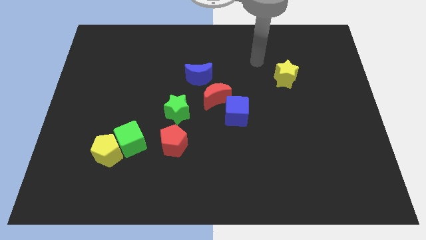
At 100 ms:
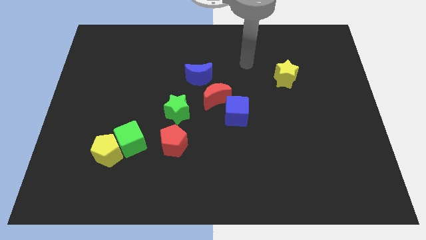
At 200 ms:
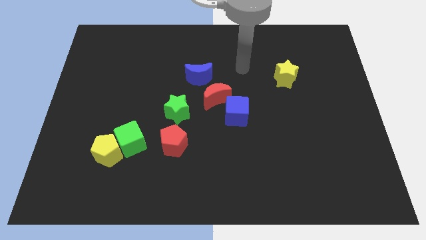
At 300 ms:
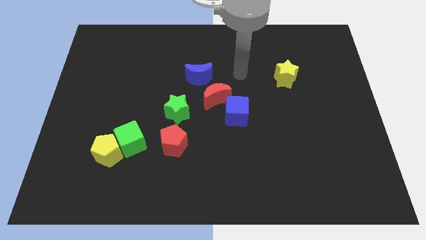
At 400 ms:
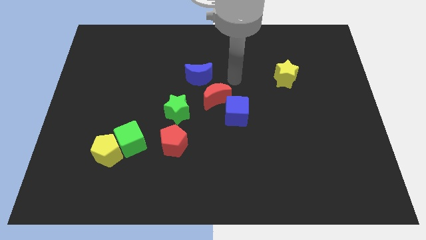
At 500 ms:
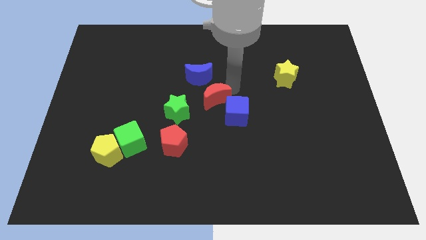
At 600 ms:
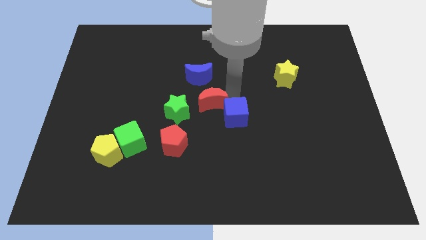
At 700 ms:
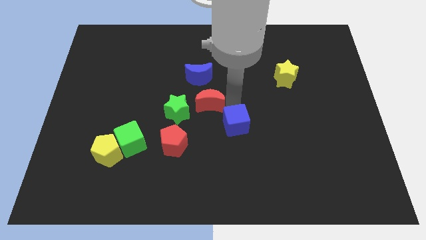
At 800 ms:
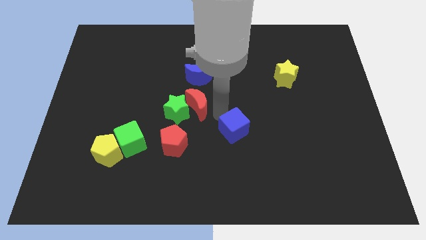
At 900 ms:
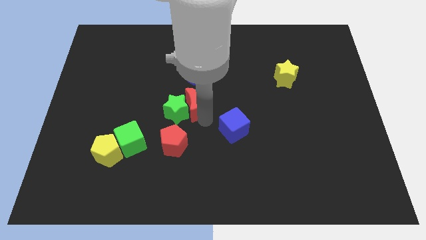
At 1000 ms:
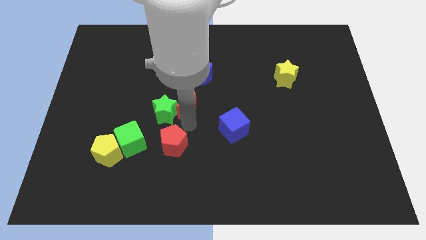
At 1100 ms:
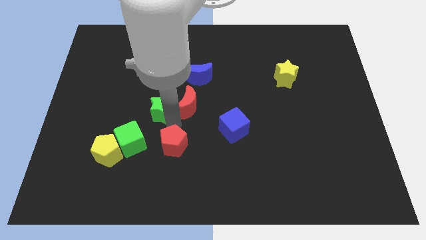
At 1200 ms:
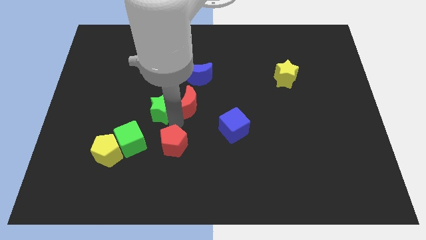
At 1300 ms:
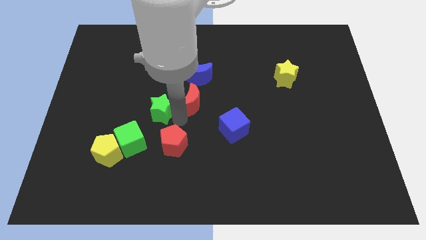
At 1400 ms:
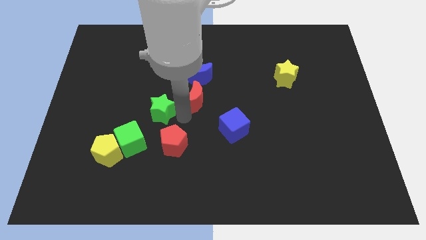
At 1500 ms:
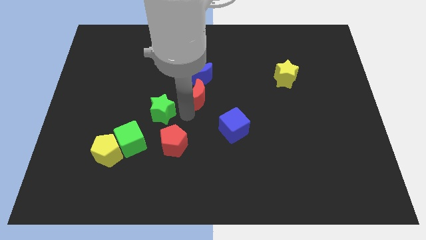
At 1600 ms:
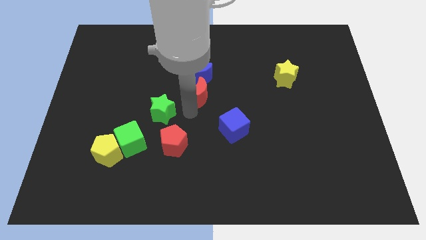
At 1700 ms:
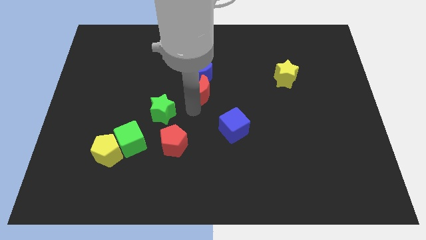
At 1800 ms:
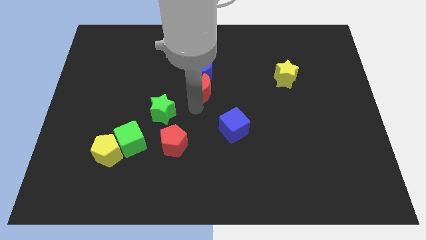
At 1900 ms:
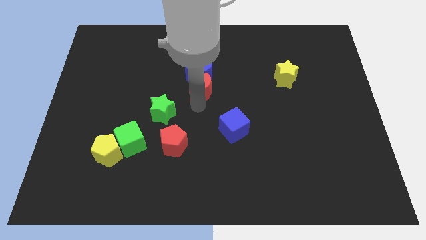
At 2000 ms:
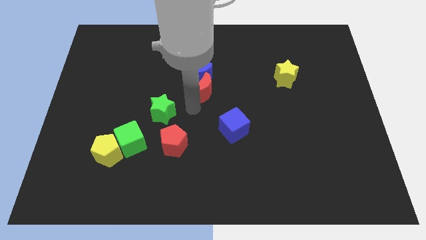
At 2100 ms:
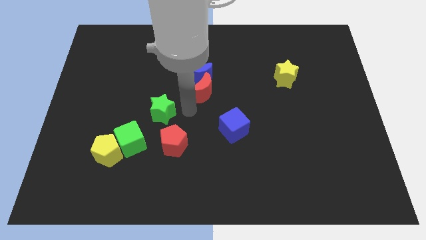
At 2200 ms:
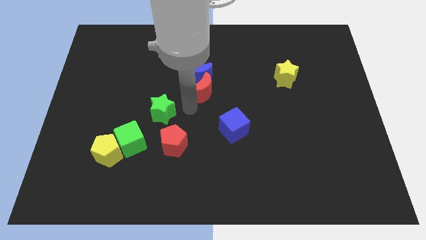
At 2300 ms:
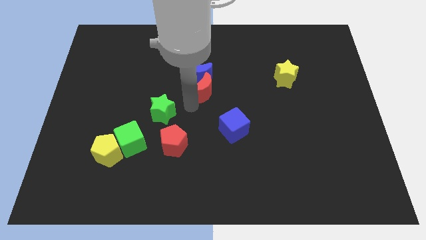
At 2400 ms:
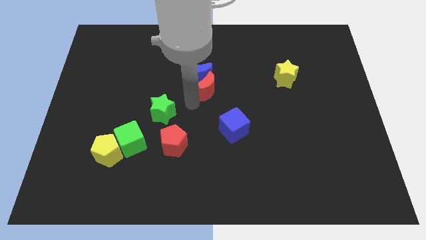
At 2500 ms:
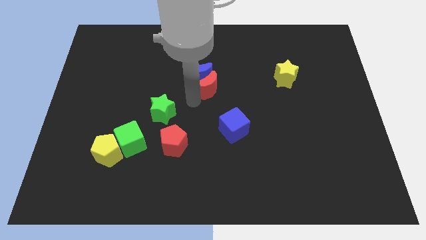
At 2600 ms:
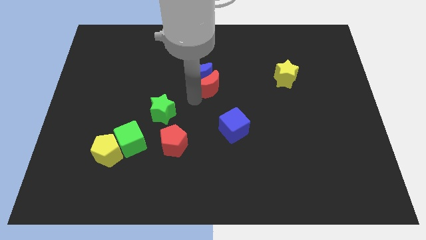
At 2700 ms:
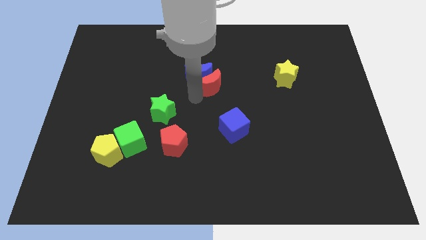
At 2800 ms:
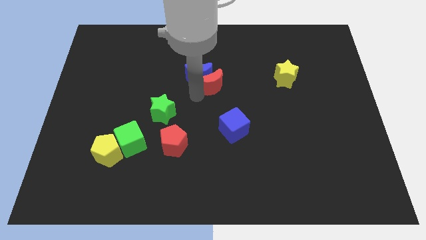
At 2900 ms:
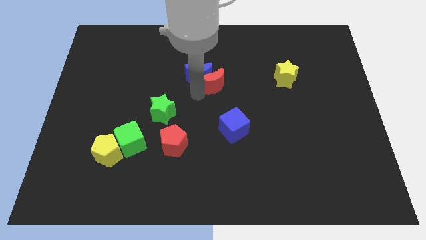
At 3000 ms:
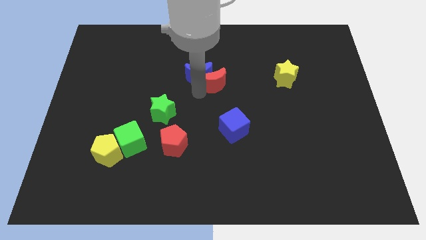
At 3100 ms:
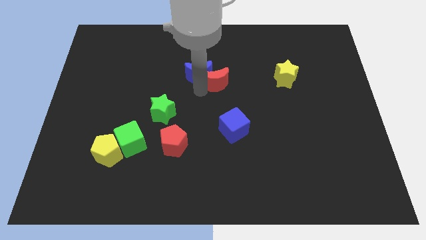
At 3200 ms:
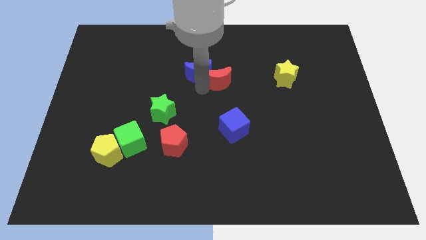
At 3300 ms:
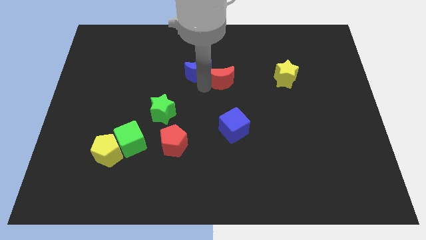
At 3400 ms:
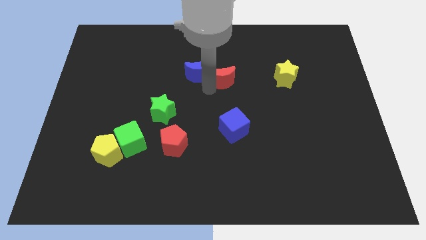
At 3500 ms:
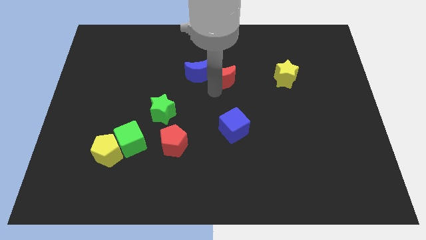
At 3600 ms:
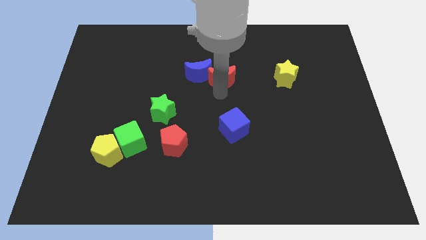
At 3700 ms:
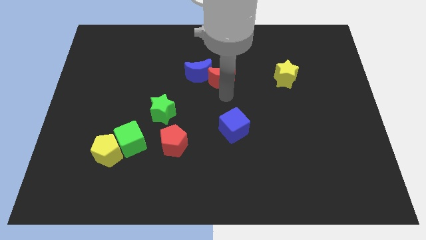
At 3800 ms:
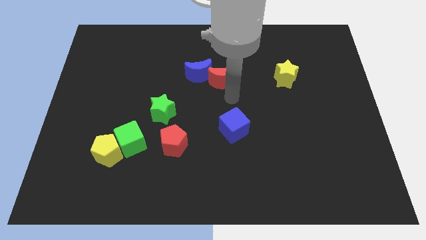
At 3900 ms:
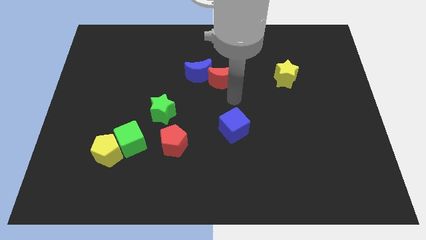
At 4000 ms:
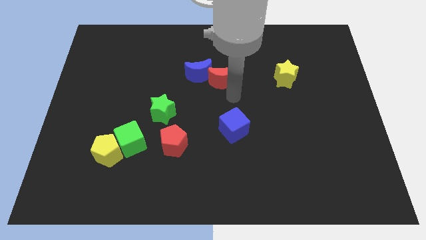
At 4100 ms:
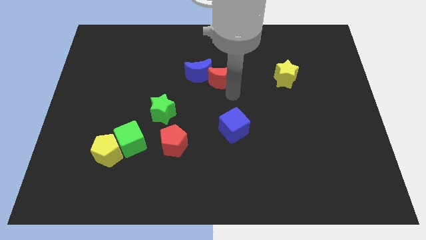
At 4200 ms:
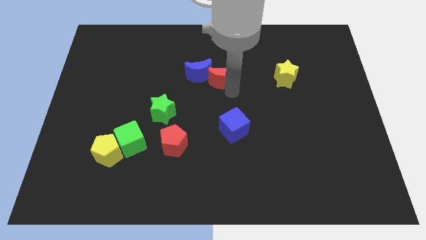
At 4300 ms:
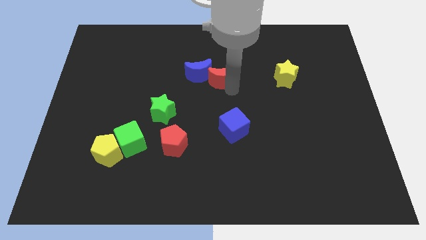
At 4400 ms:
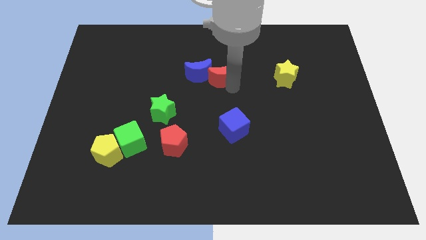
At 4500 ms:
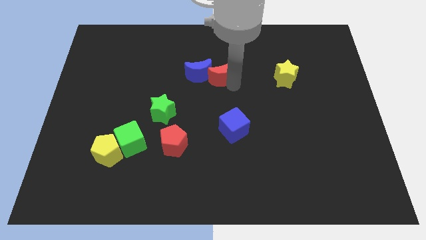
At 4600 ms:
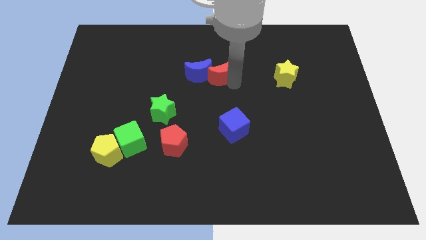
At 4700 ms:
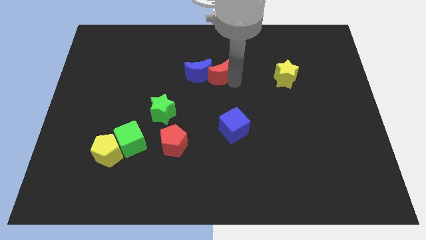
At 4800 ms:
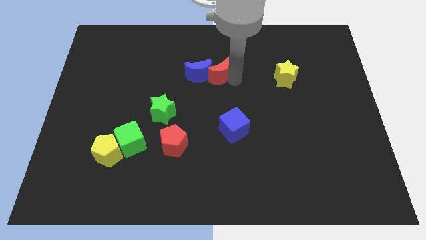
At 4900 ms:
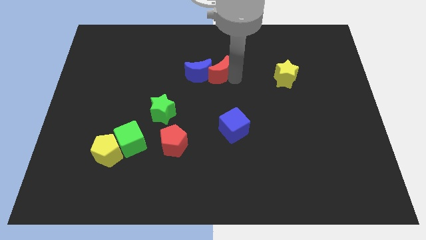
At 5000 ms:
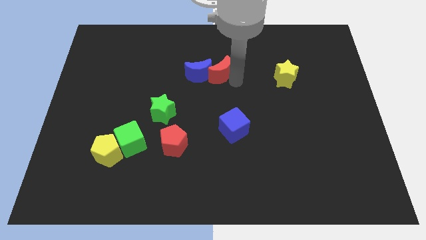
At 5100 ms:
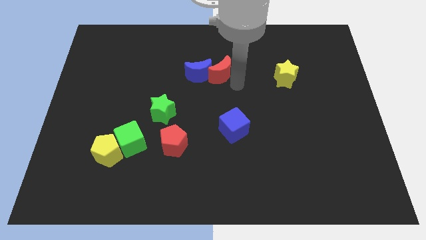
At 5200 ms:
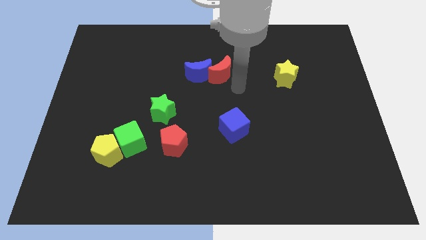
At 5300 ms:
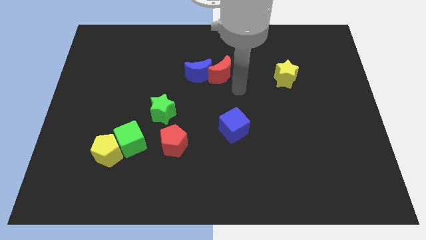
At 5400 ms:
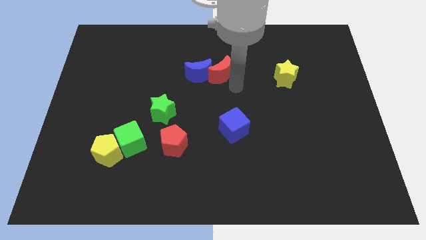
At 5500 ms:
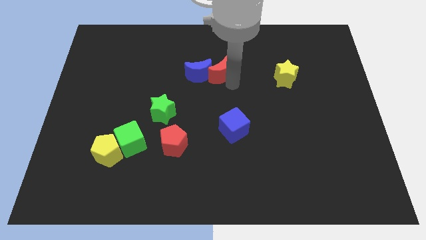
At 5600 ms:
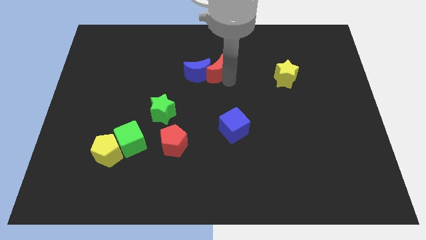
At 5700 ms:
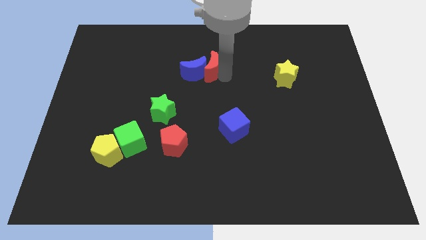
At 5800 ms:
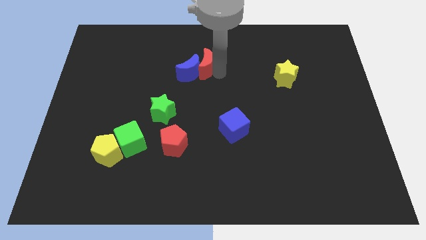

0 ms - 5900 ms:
slightly push the red moon upwards and to the left diagonally

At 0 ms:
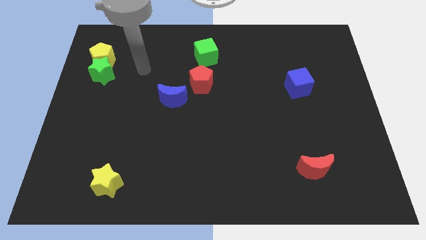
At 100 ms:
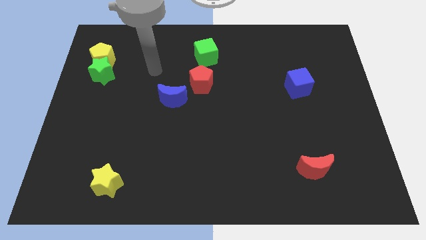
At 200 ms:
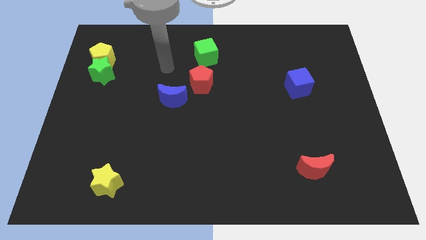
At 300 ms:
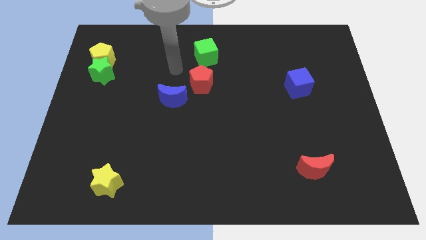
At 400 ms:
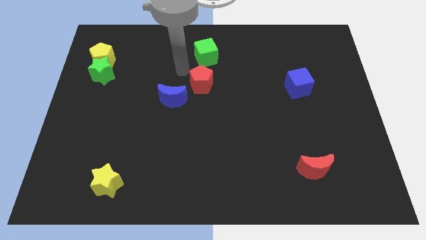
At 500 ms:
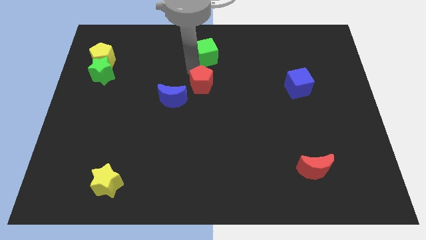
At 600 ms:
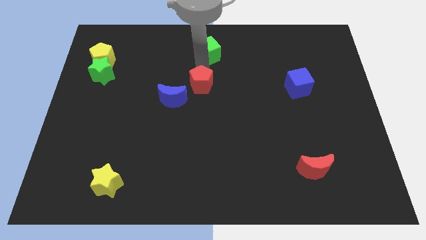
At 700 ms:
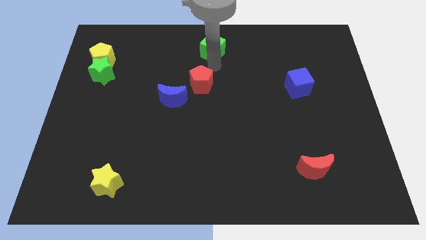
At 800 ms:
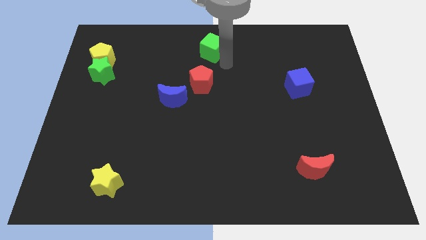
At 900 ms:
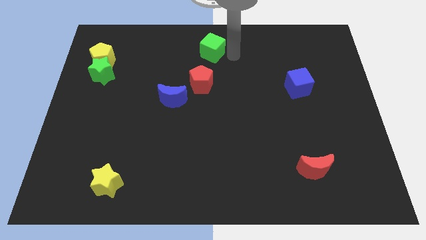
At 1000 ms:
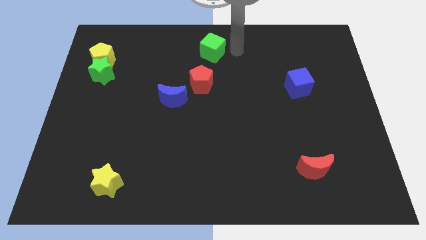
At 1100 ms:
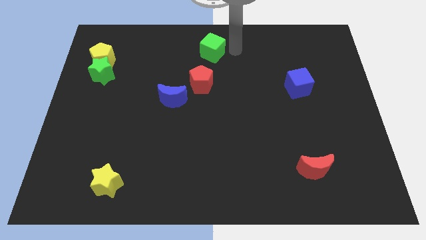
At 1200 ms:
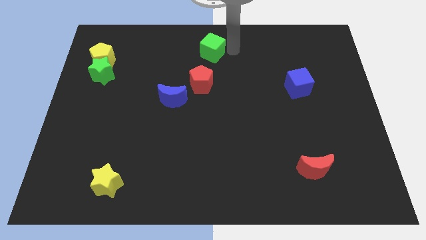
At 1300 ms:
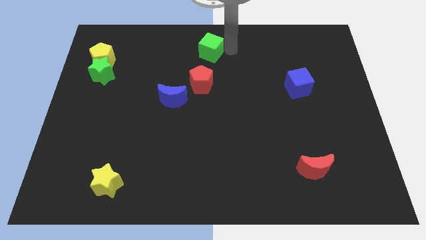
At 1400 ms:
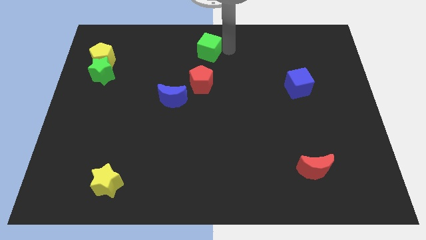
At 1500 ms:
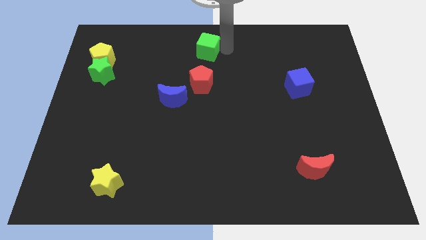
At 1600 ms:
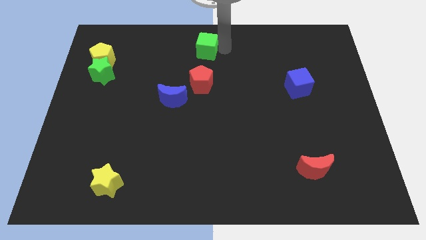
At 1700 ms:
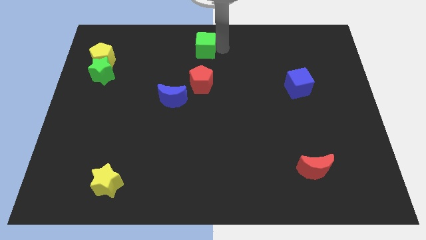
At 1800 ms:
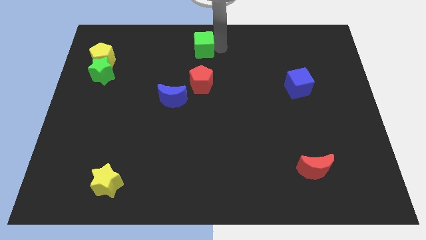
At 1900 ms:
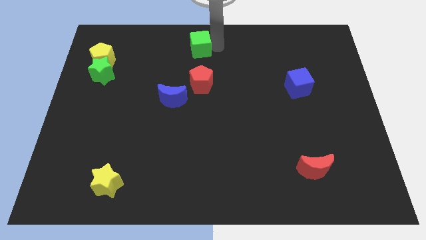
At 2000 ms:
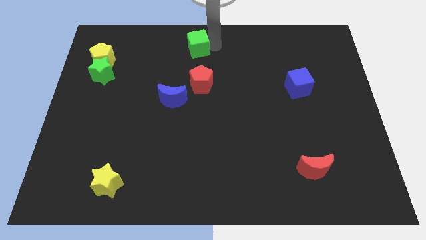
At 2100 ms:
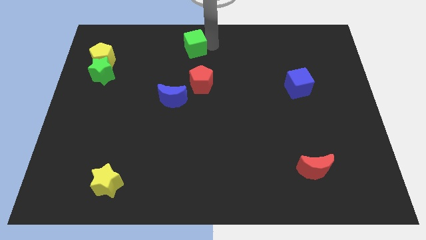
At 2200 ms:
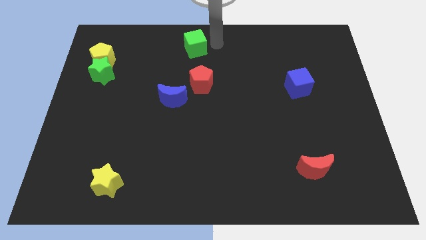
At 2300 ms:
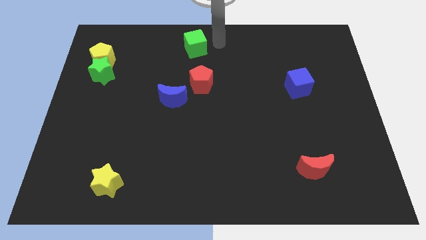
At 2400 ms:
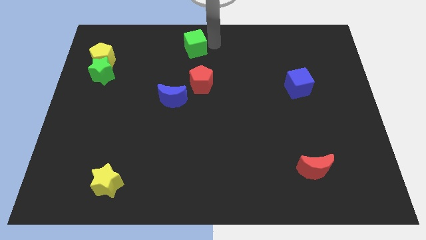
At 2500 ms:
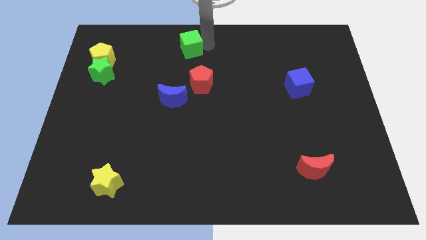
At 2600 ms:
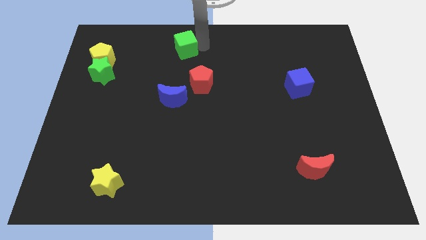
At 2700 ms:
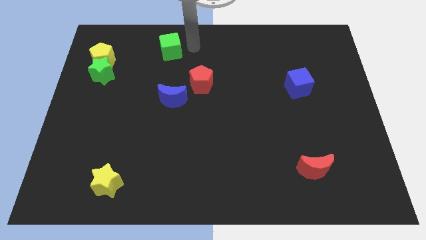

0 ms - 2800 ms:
move the green cube left somewhat
